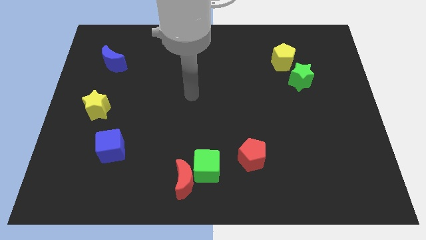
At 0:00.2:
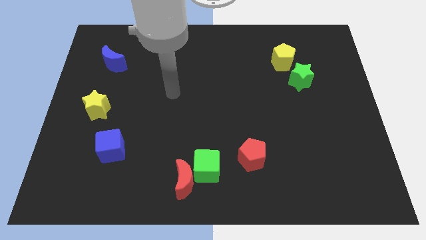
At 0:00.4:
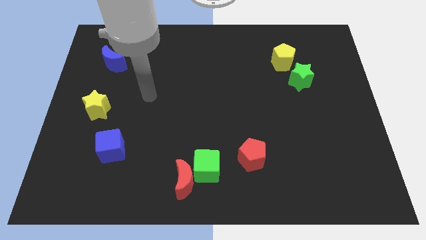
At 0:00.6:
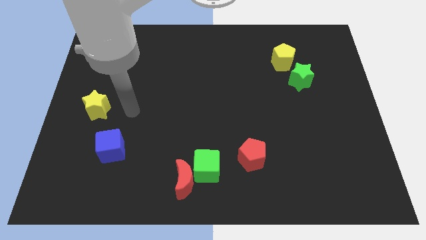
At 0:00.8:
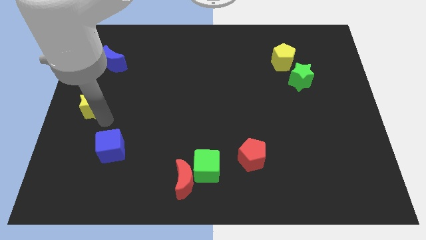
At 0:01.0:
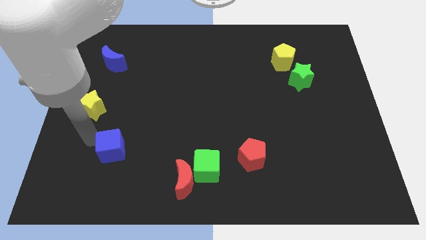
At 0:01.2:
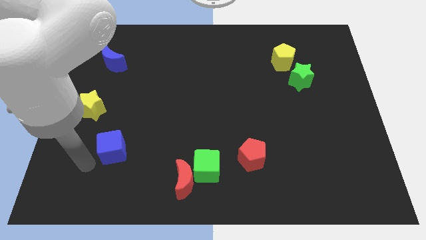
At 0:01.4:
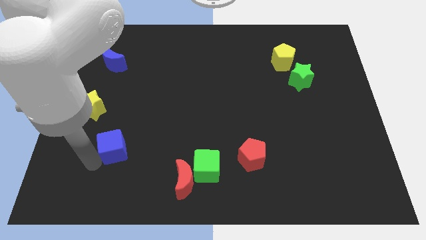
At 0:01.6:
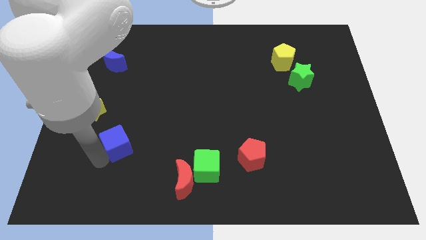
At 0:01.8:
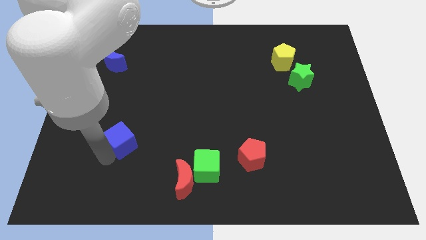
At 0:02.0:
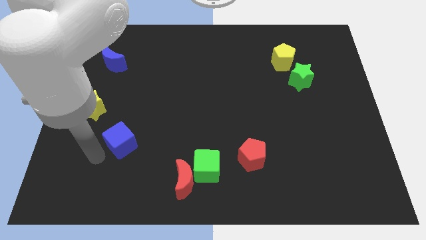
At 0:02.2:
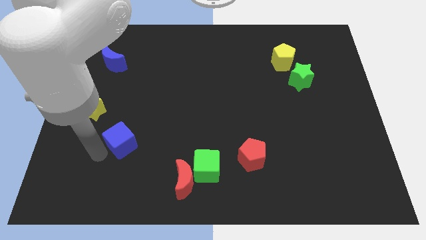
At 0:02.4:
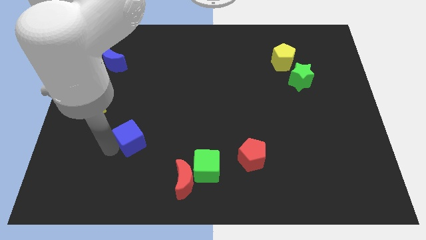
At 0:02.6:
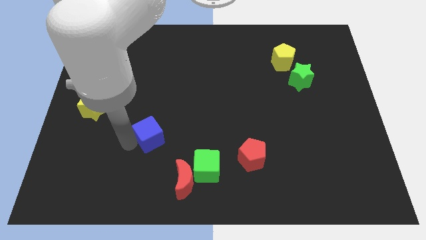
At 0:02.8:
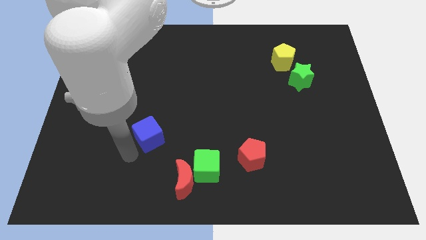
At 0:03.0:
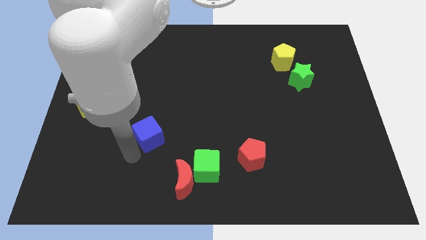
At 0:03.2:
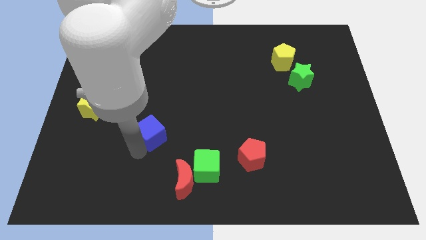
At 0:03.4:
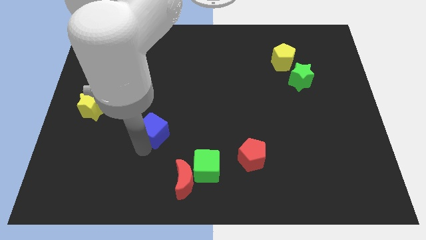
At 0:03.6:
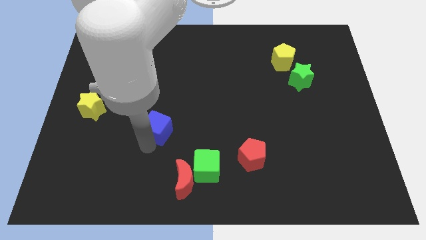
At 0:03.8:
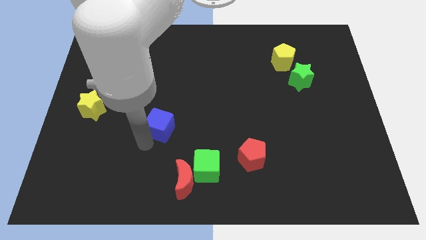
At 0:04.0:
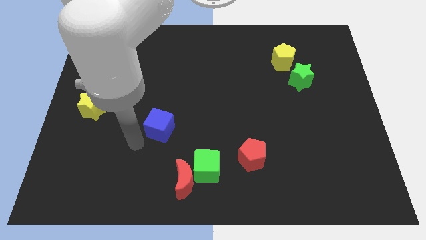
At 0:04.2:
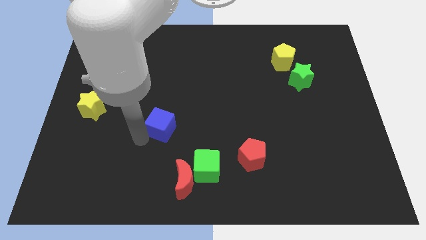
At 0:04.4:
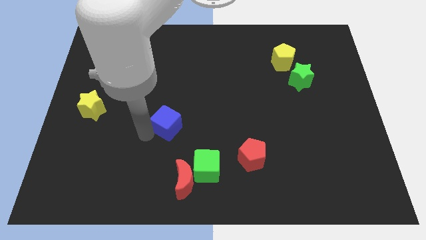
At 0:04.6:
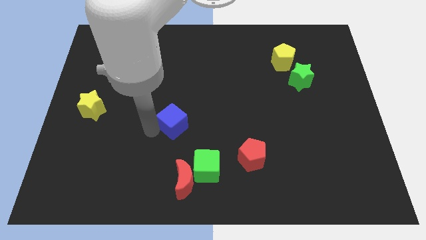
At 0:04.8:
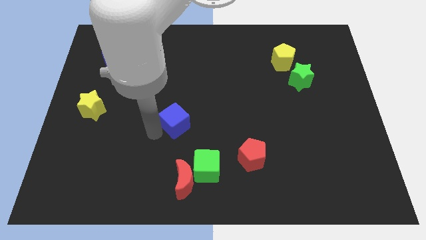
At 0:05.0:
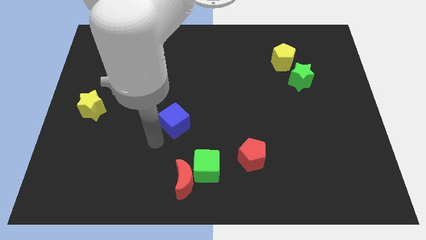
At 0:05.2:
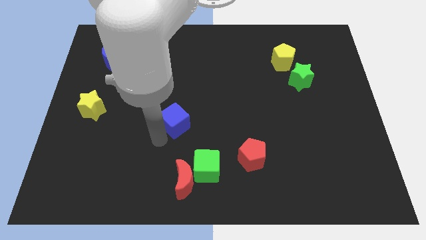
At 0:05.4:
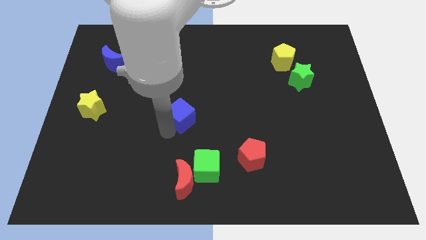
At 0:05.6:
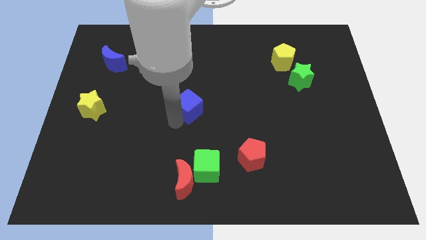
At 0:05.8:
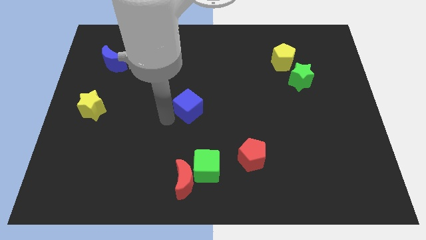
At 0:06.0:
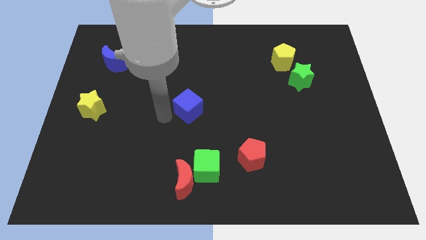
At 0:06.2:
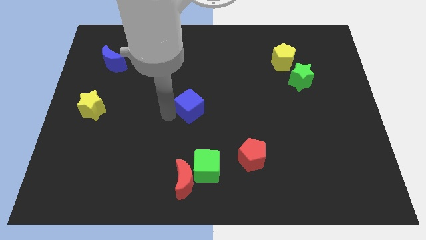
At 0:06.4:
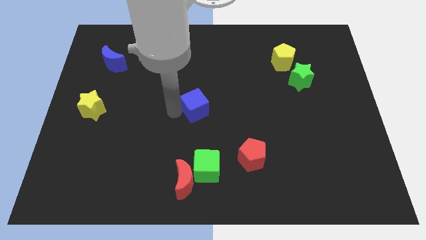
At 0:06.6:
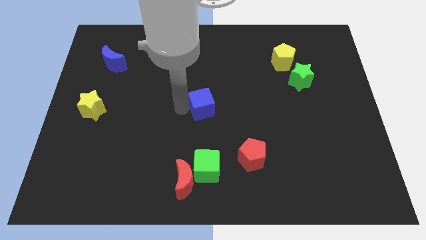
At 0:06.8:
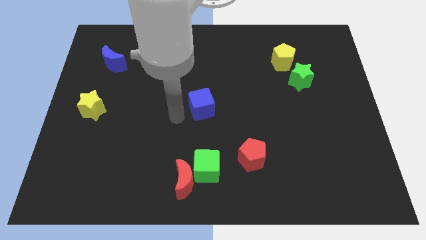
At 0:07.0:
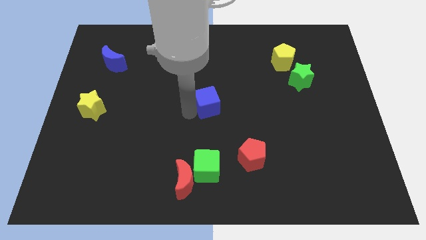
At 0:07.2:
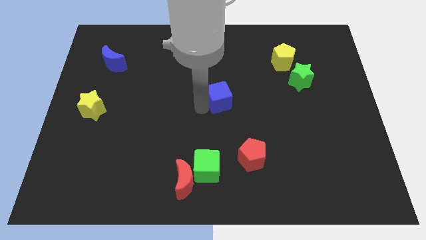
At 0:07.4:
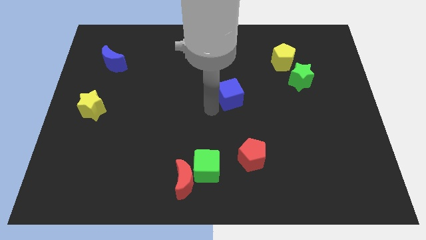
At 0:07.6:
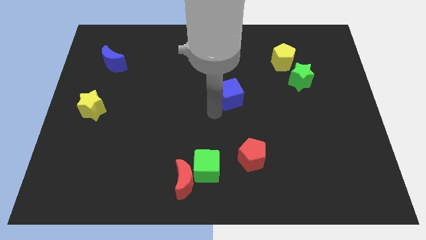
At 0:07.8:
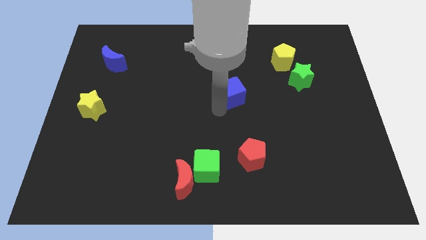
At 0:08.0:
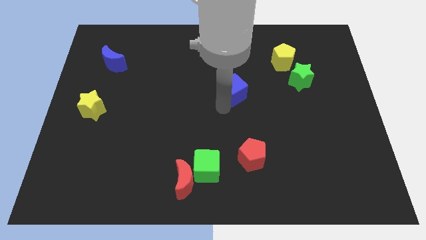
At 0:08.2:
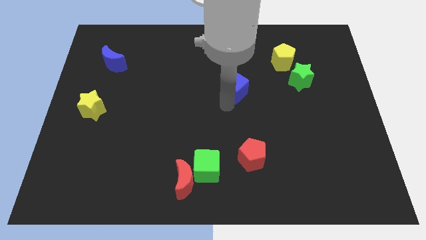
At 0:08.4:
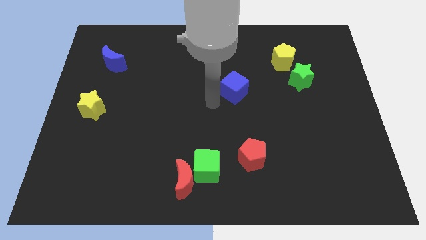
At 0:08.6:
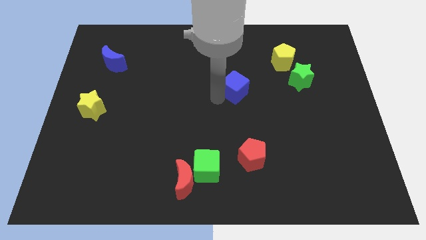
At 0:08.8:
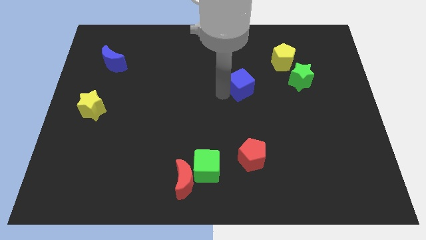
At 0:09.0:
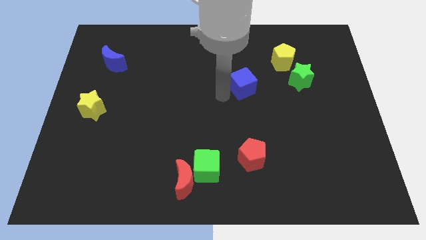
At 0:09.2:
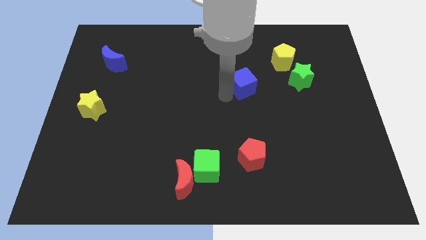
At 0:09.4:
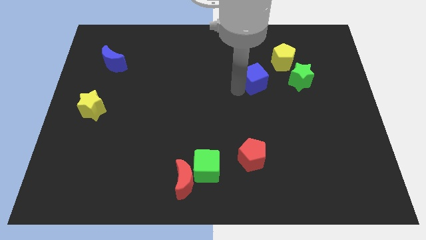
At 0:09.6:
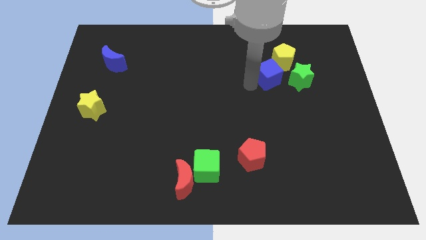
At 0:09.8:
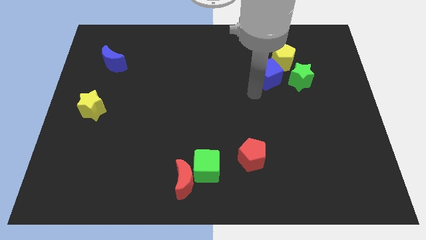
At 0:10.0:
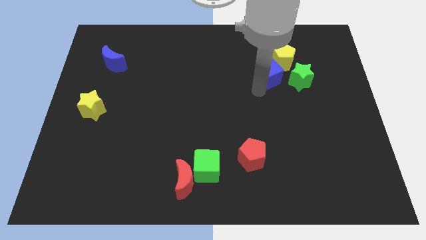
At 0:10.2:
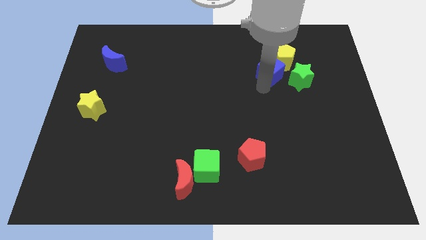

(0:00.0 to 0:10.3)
move the blue cube next to the yellow pentagon

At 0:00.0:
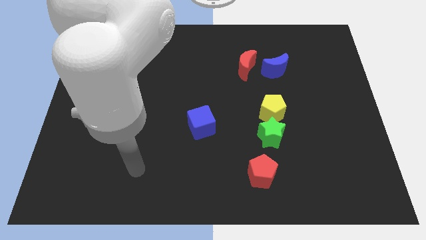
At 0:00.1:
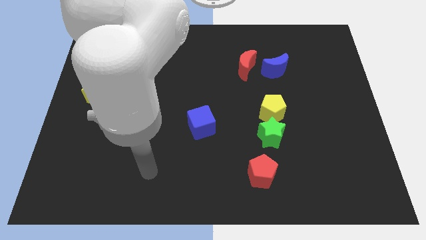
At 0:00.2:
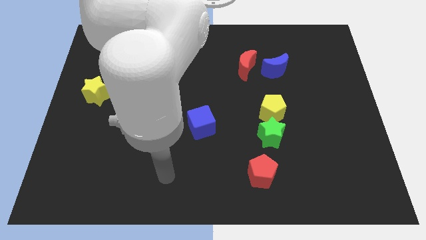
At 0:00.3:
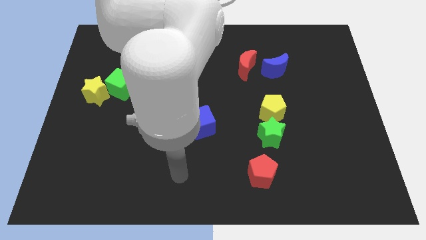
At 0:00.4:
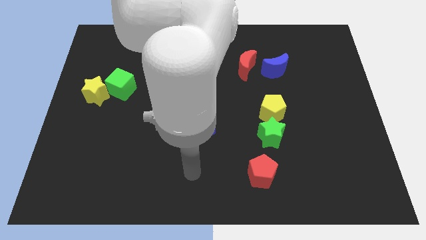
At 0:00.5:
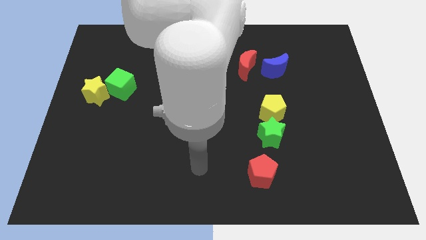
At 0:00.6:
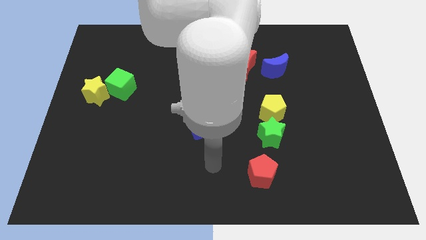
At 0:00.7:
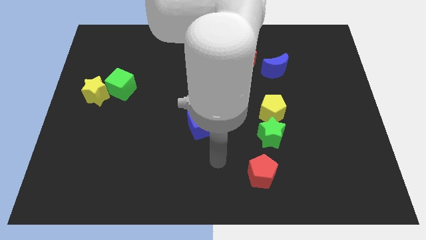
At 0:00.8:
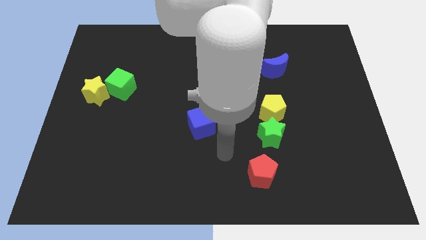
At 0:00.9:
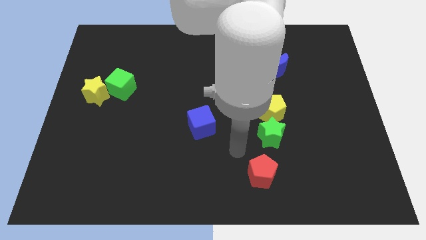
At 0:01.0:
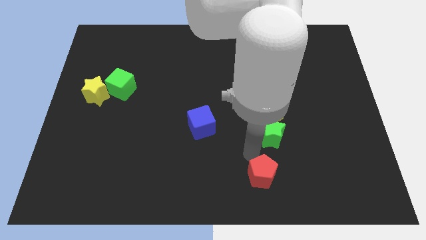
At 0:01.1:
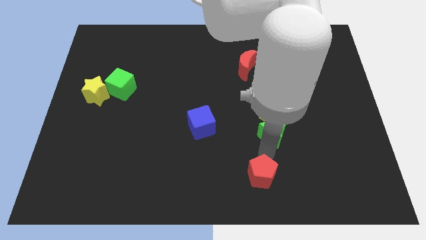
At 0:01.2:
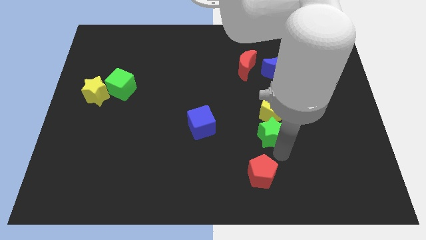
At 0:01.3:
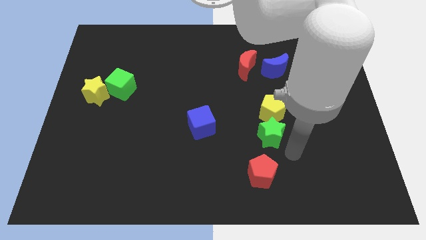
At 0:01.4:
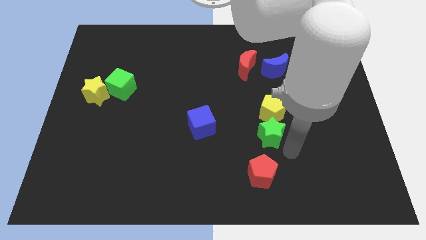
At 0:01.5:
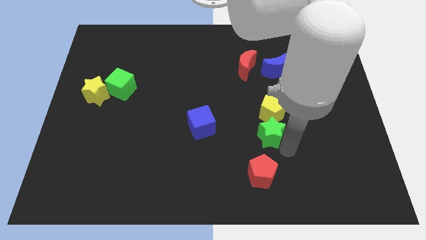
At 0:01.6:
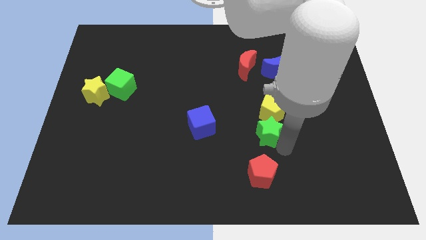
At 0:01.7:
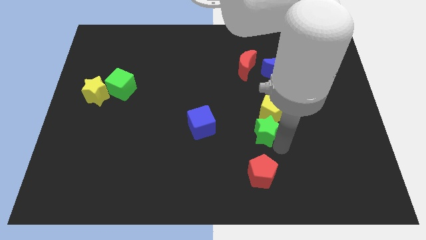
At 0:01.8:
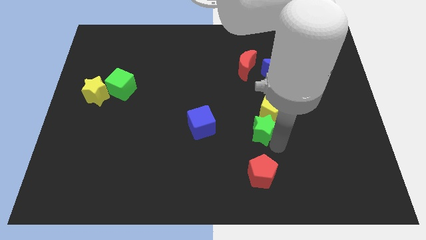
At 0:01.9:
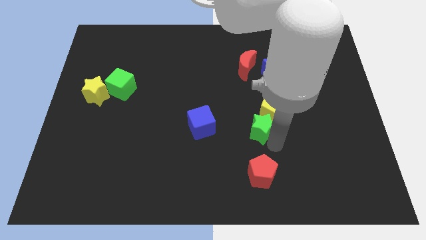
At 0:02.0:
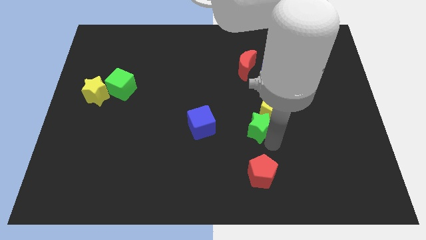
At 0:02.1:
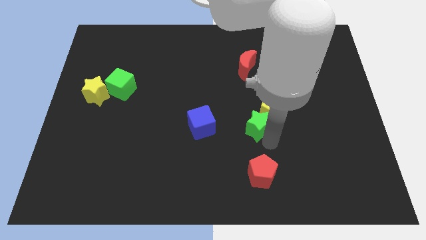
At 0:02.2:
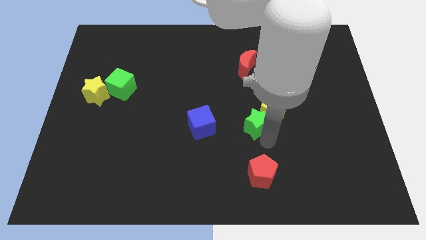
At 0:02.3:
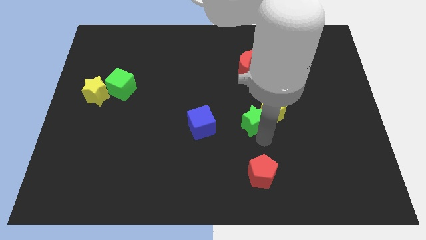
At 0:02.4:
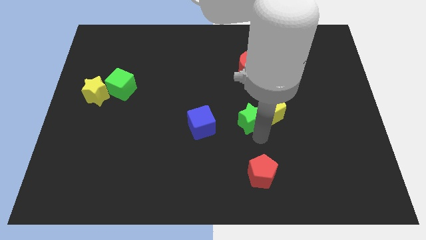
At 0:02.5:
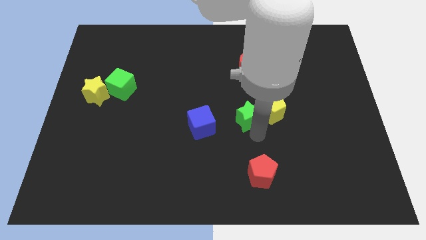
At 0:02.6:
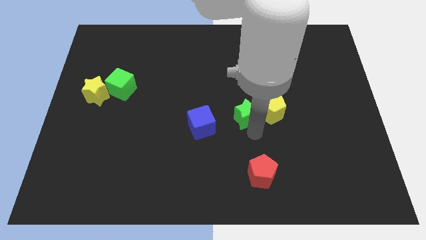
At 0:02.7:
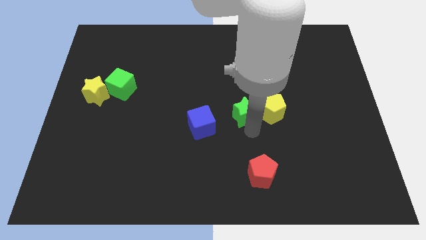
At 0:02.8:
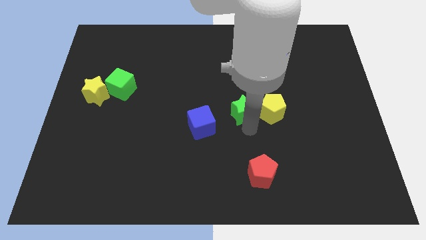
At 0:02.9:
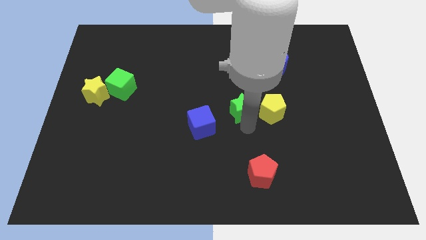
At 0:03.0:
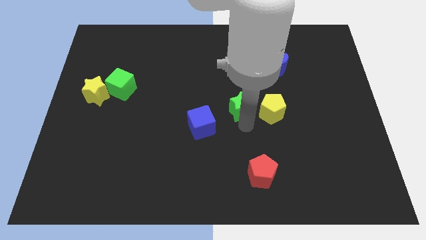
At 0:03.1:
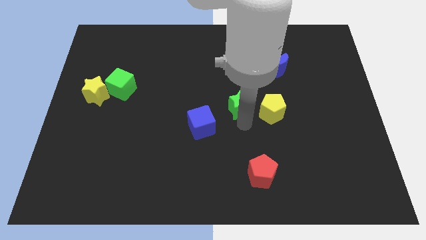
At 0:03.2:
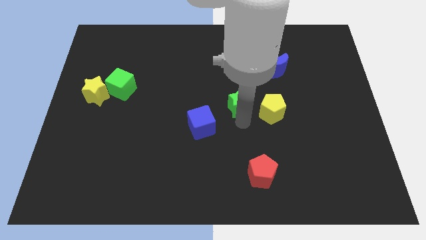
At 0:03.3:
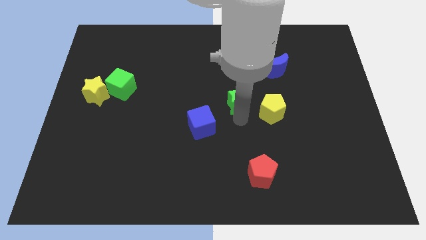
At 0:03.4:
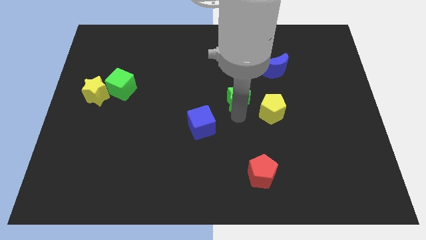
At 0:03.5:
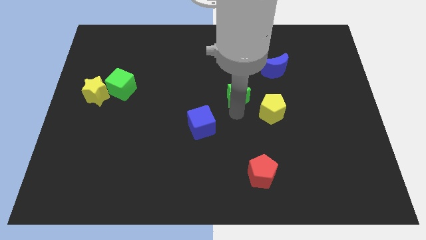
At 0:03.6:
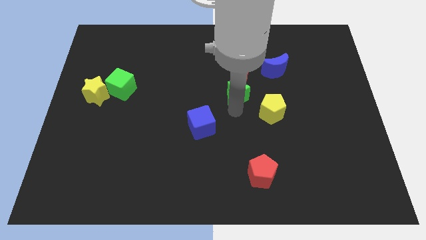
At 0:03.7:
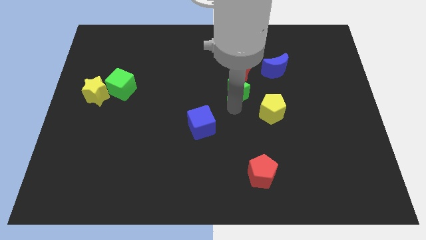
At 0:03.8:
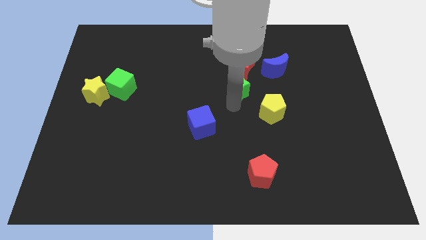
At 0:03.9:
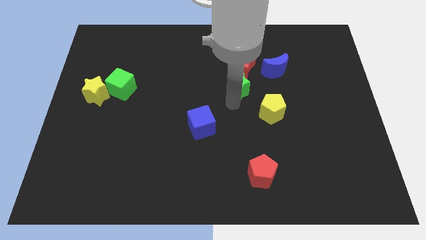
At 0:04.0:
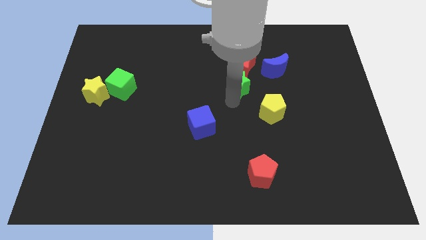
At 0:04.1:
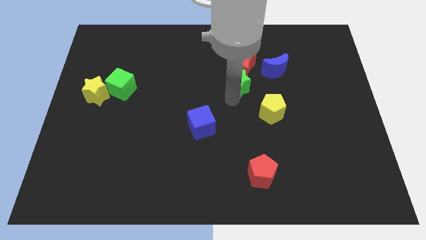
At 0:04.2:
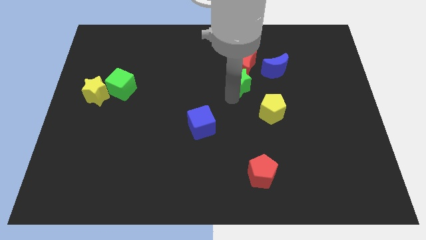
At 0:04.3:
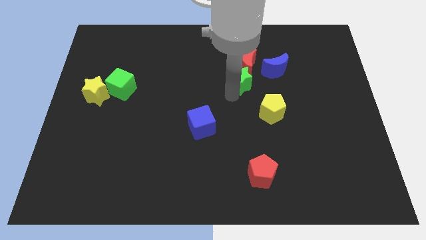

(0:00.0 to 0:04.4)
slide the green star to the red moon
